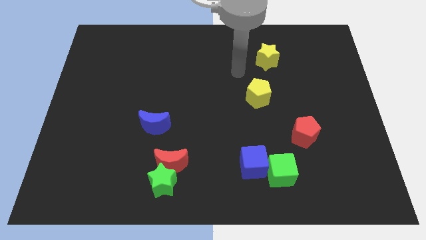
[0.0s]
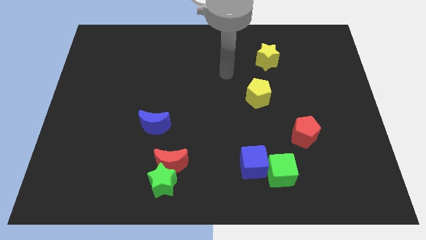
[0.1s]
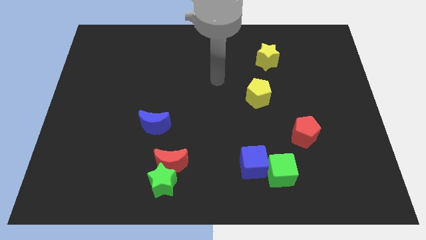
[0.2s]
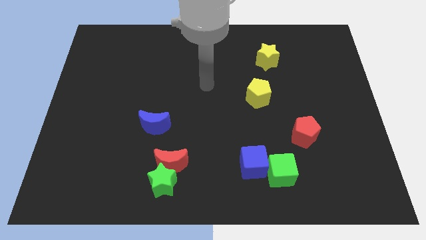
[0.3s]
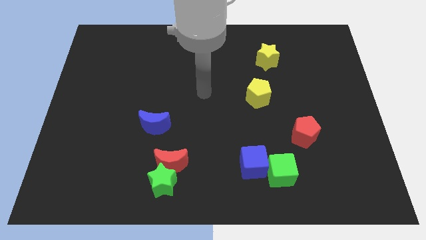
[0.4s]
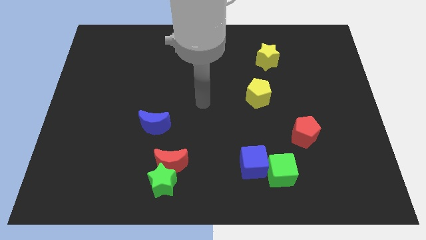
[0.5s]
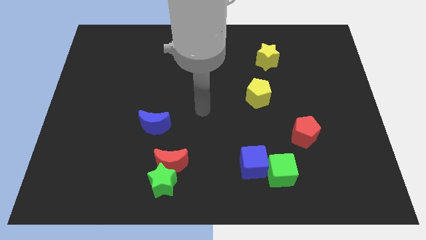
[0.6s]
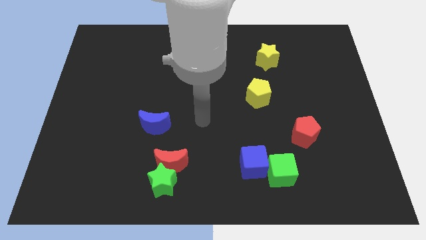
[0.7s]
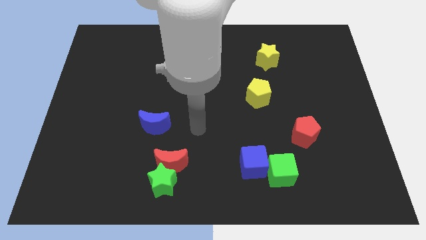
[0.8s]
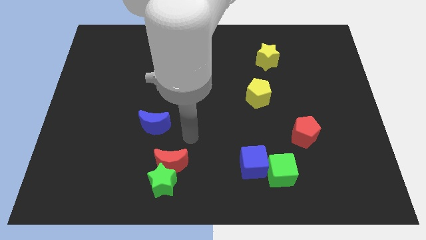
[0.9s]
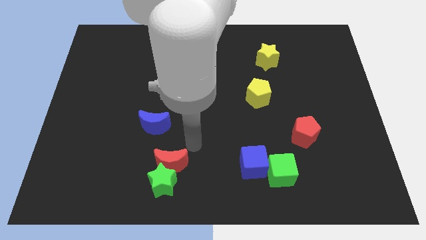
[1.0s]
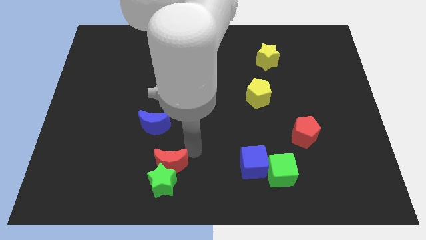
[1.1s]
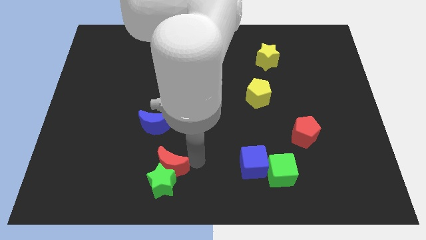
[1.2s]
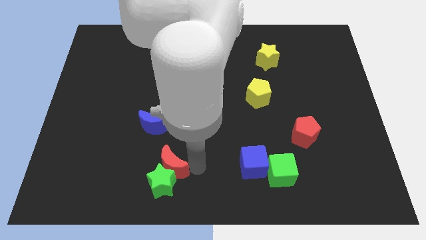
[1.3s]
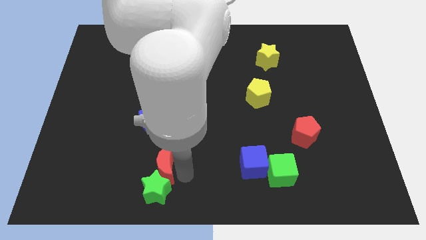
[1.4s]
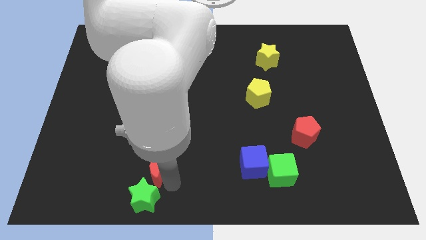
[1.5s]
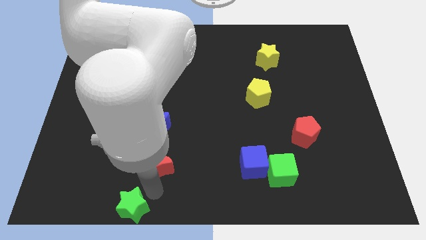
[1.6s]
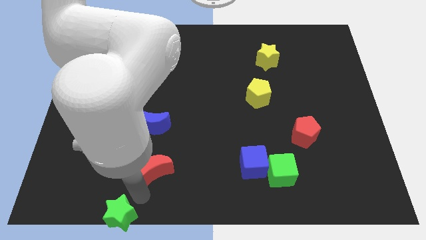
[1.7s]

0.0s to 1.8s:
move the red moon away from the green star

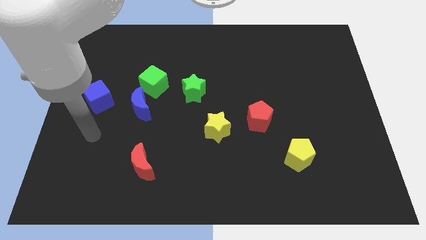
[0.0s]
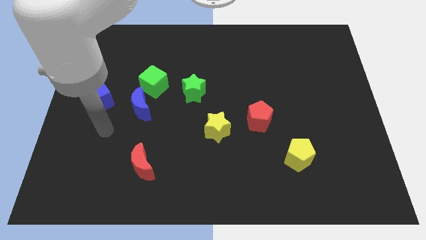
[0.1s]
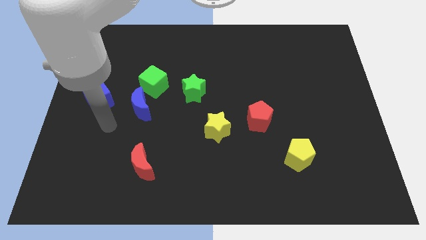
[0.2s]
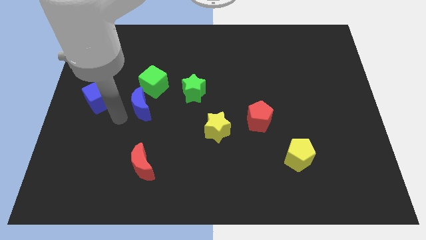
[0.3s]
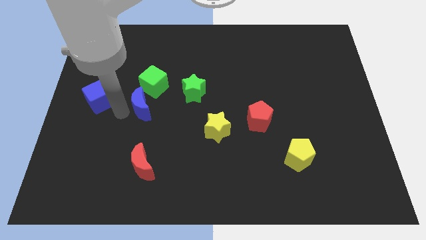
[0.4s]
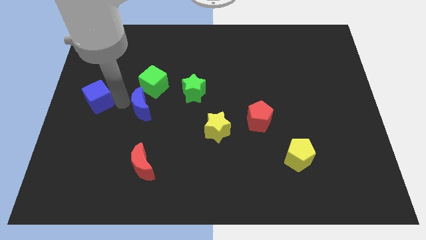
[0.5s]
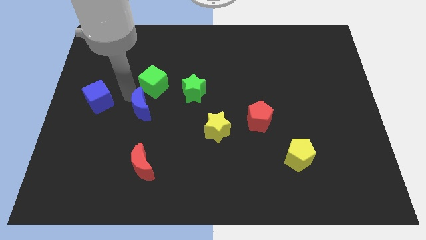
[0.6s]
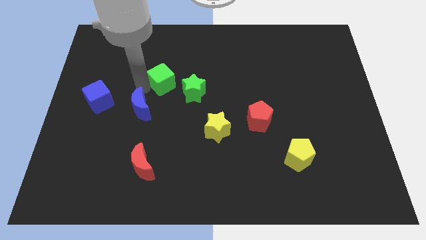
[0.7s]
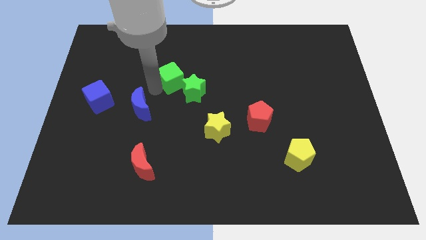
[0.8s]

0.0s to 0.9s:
separate the blue moon from the green cube

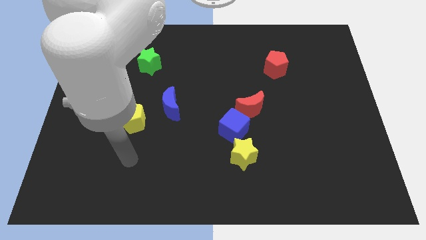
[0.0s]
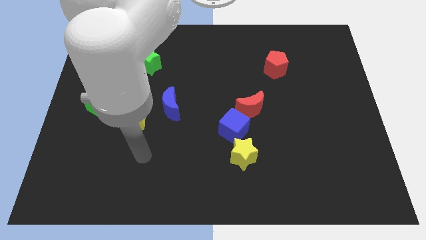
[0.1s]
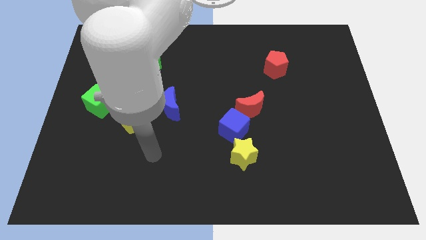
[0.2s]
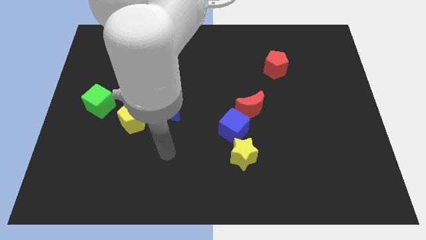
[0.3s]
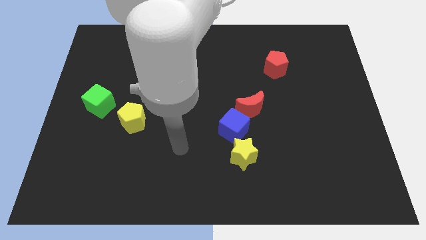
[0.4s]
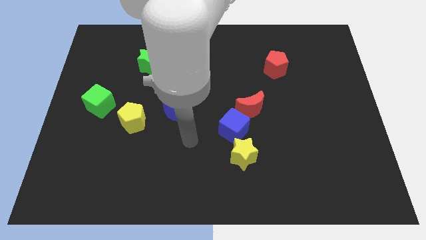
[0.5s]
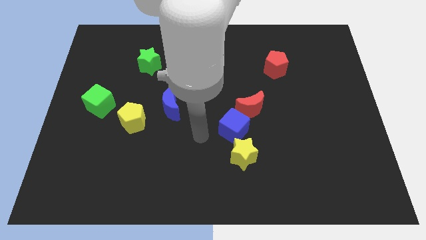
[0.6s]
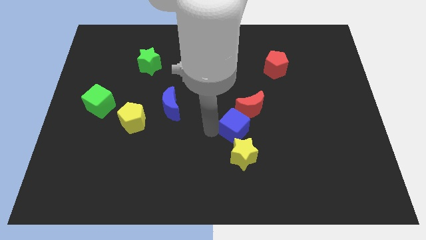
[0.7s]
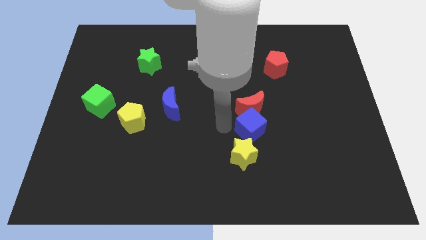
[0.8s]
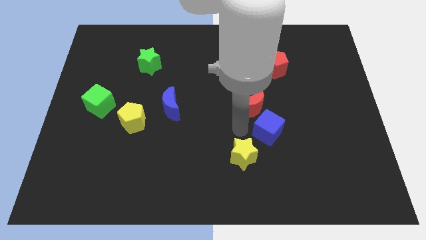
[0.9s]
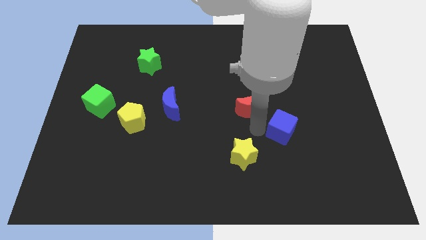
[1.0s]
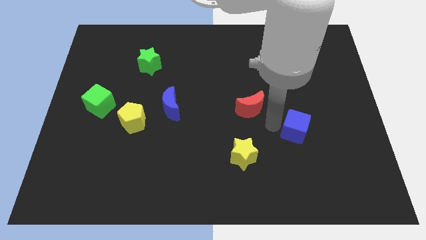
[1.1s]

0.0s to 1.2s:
move the red moon away from the blue cube

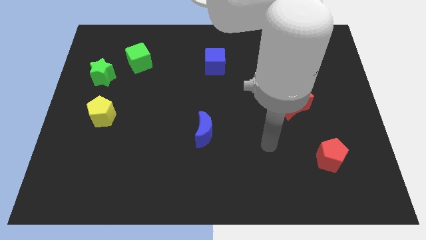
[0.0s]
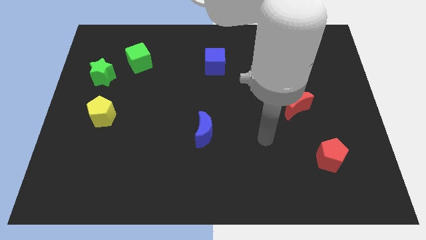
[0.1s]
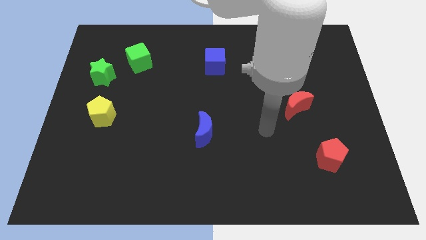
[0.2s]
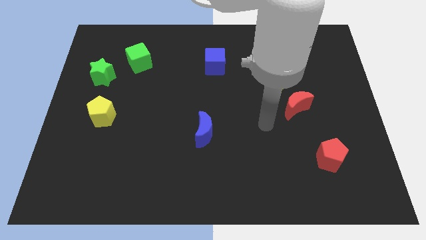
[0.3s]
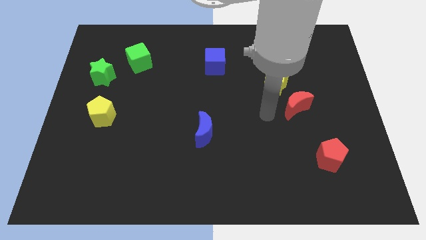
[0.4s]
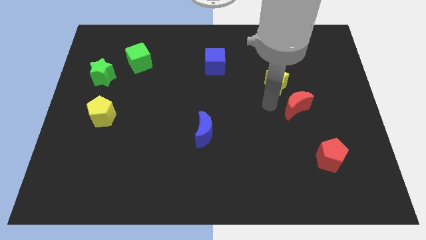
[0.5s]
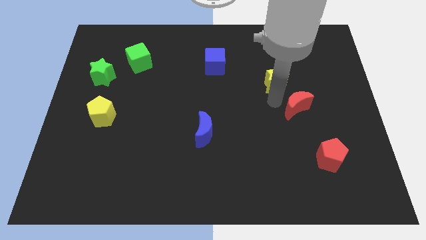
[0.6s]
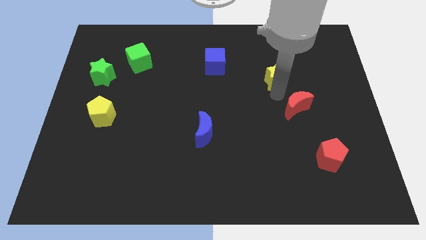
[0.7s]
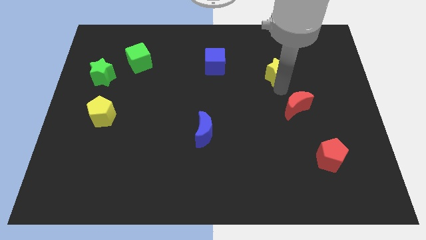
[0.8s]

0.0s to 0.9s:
move the red moon away from the yellow star

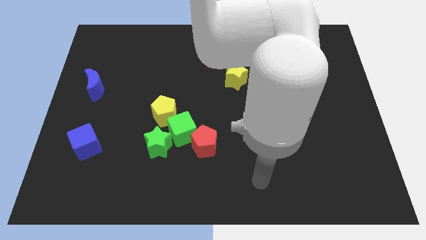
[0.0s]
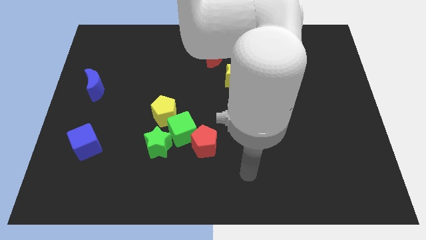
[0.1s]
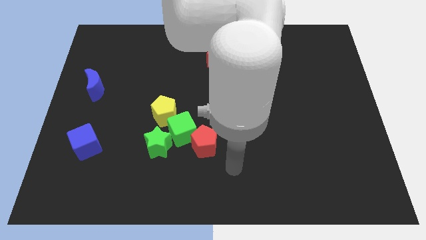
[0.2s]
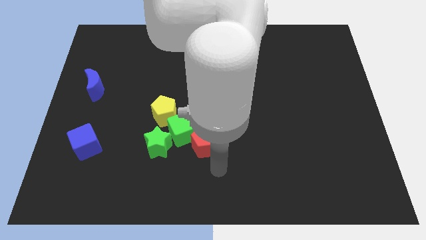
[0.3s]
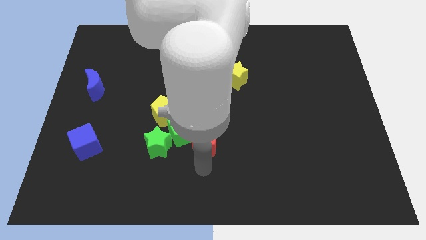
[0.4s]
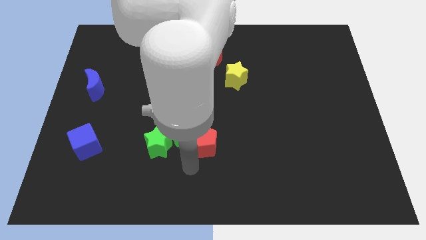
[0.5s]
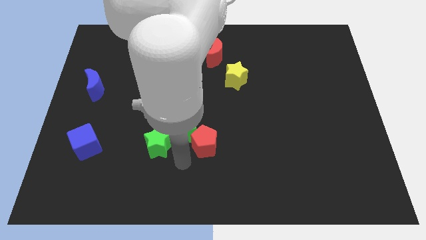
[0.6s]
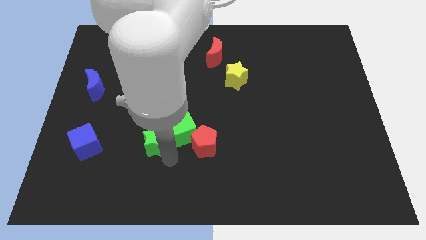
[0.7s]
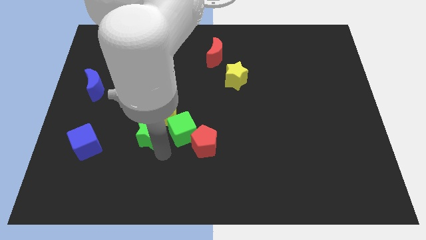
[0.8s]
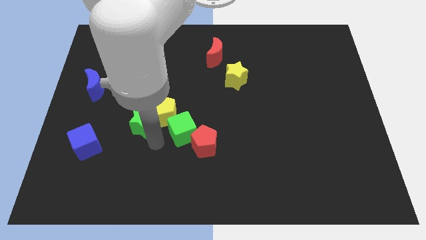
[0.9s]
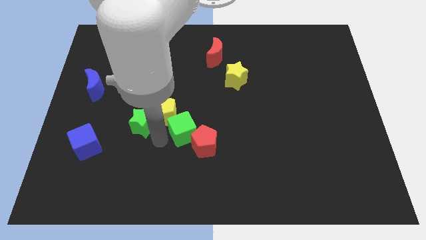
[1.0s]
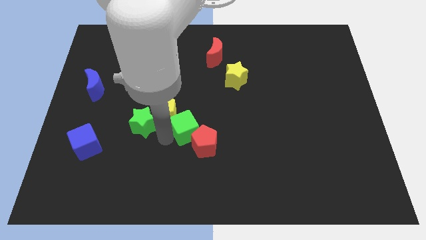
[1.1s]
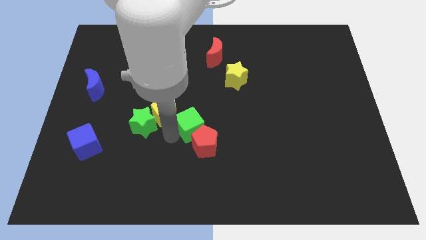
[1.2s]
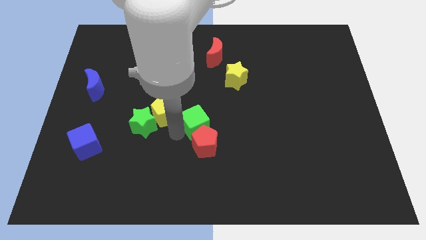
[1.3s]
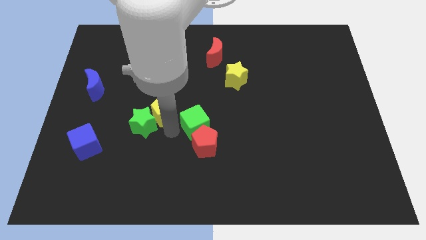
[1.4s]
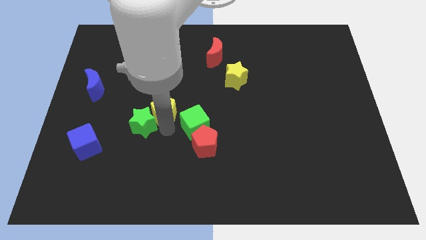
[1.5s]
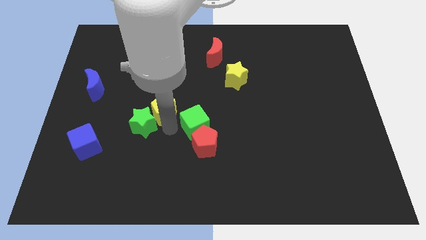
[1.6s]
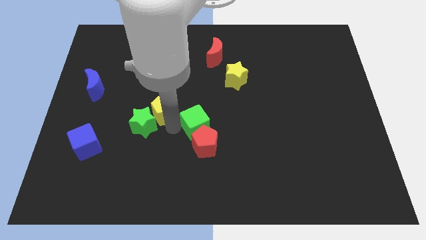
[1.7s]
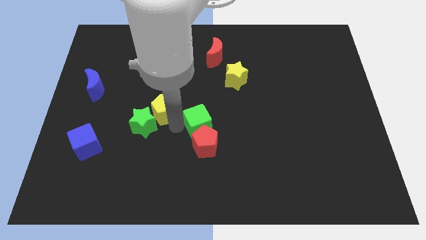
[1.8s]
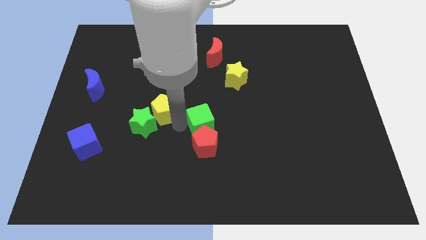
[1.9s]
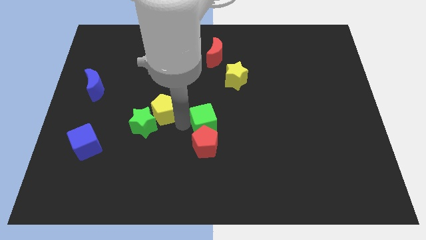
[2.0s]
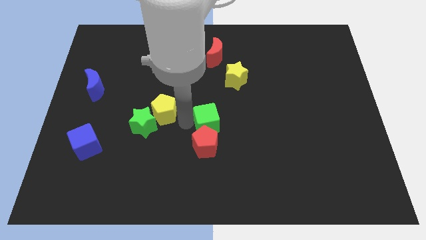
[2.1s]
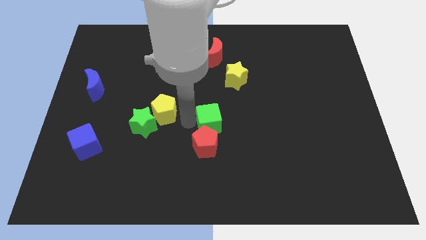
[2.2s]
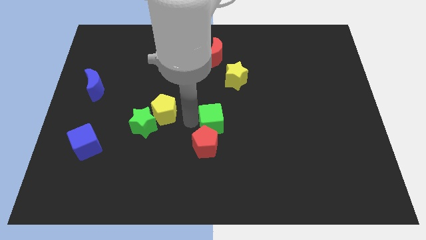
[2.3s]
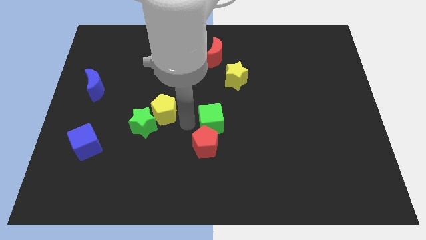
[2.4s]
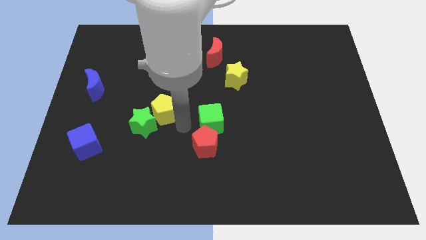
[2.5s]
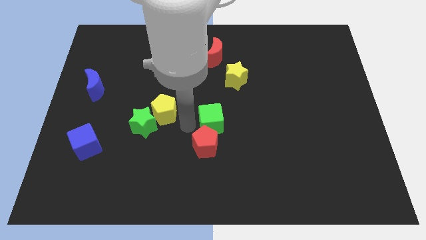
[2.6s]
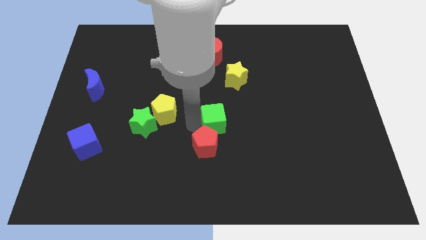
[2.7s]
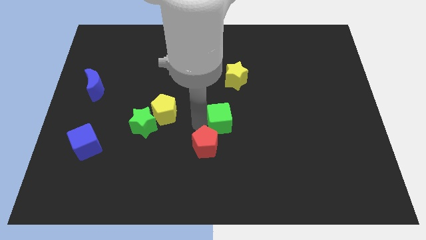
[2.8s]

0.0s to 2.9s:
separate the green cube from the group

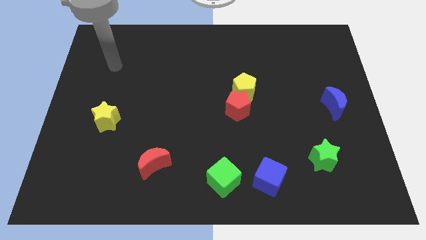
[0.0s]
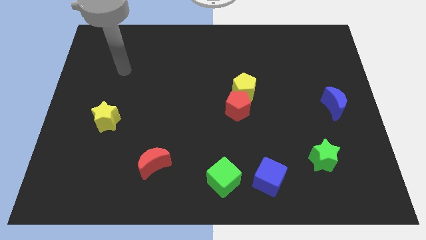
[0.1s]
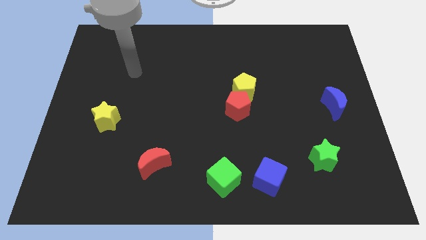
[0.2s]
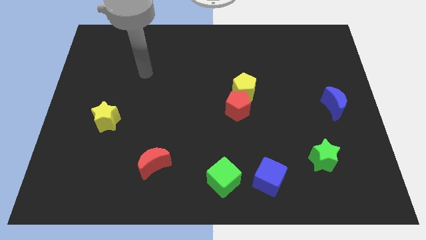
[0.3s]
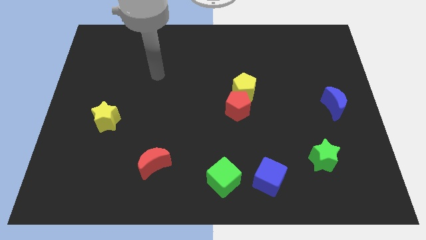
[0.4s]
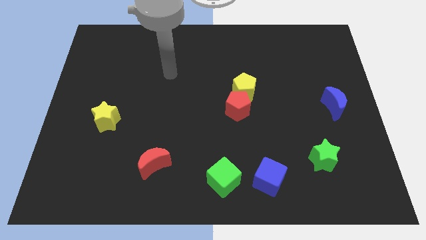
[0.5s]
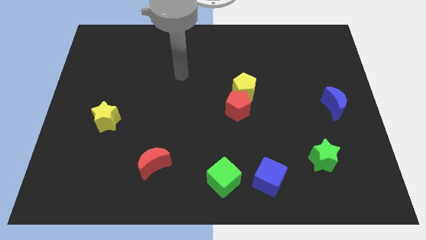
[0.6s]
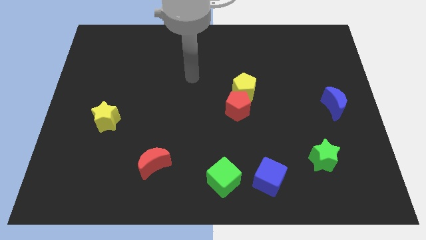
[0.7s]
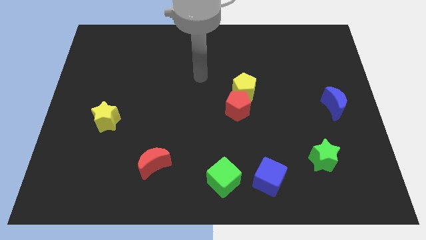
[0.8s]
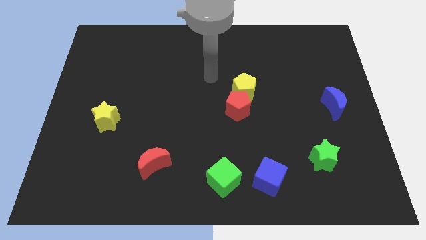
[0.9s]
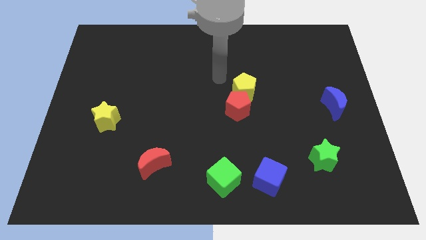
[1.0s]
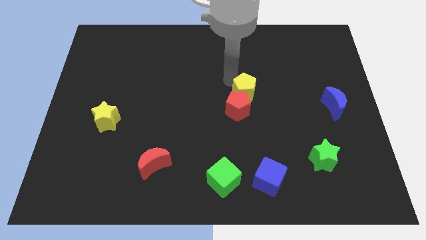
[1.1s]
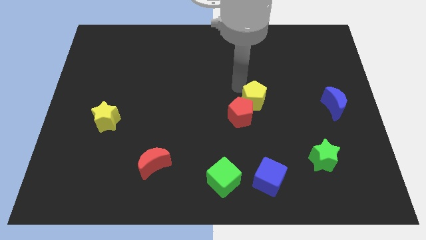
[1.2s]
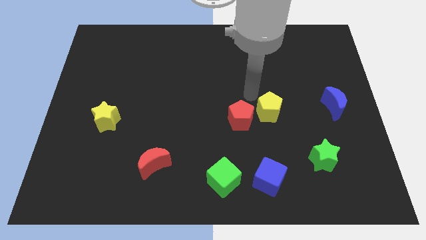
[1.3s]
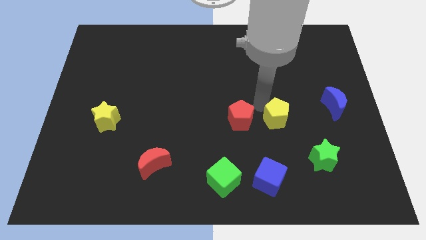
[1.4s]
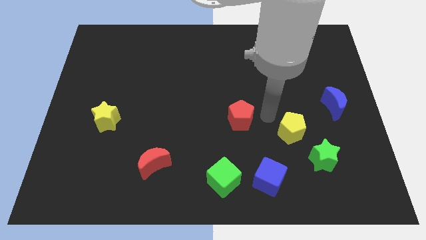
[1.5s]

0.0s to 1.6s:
move the red pentagon away from the yellow pentagon
